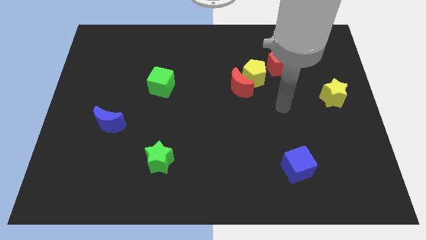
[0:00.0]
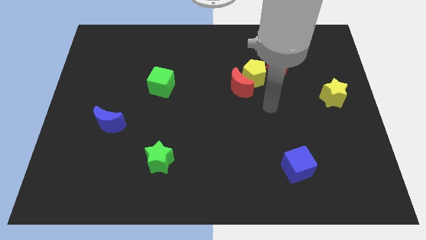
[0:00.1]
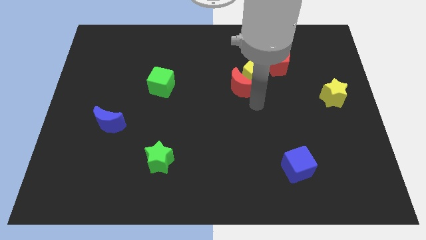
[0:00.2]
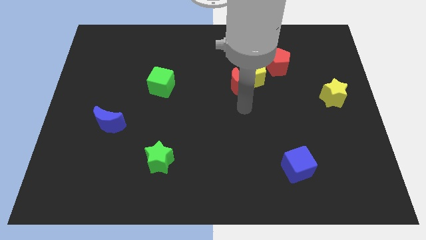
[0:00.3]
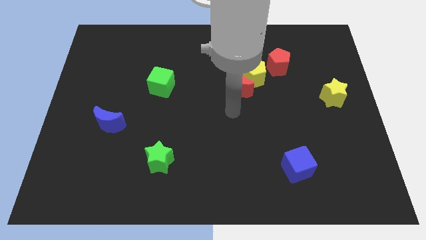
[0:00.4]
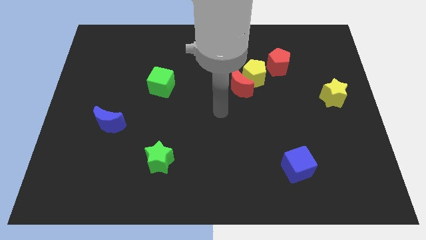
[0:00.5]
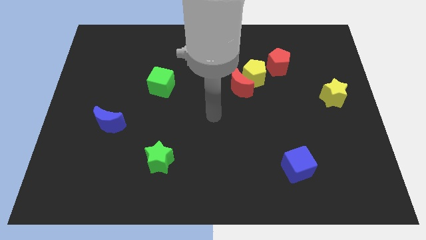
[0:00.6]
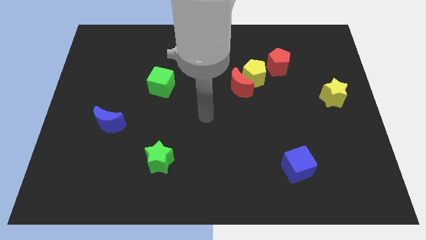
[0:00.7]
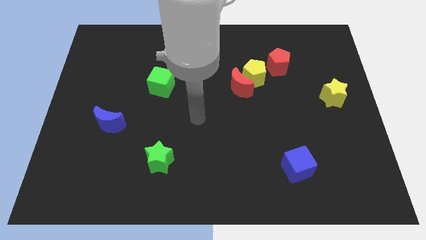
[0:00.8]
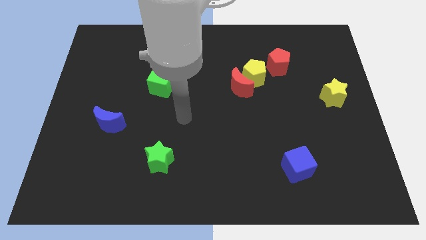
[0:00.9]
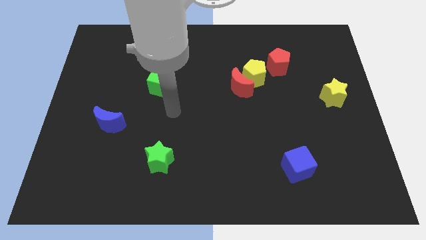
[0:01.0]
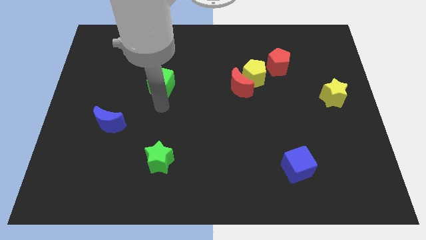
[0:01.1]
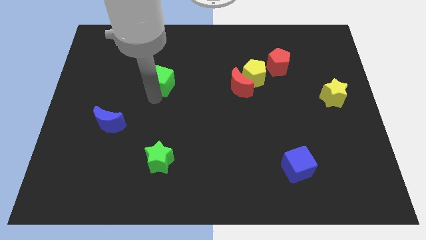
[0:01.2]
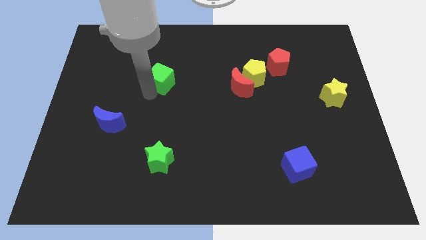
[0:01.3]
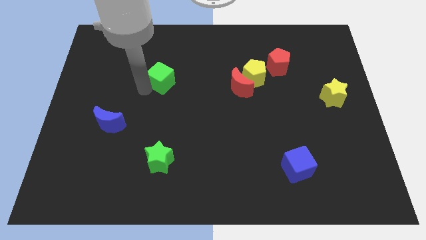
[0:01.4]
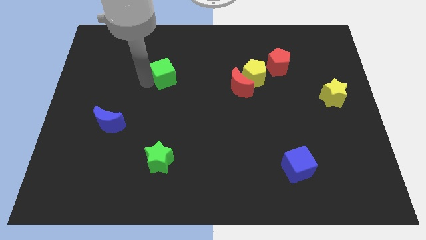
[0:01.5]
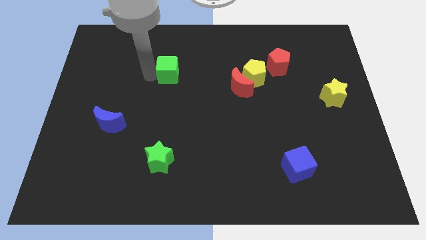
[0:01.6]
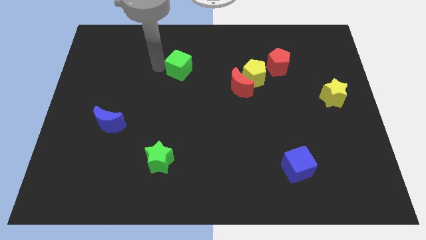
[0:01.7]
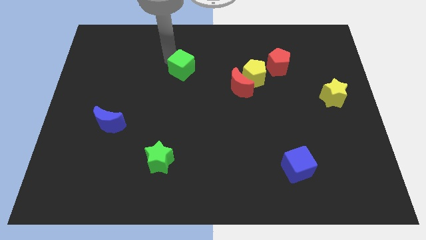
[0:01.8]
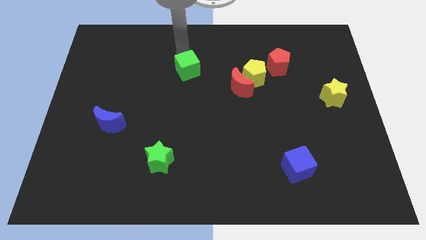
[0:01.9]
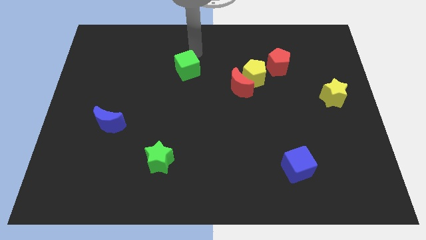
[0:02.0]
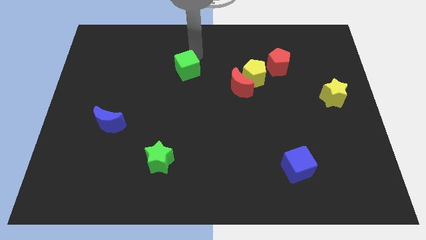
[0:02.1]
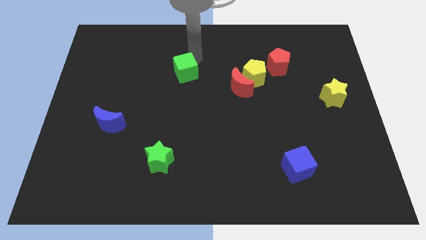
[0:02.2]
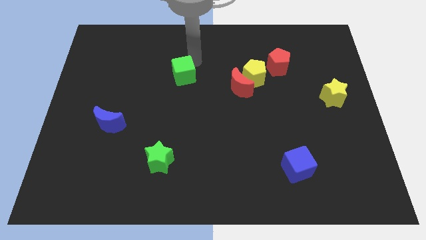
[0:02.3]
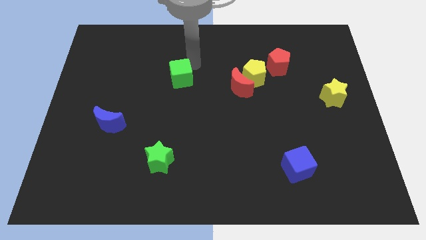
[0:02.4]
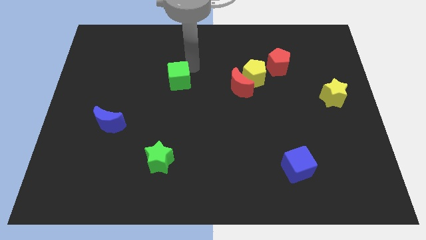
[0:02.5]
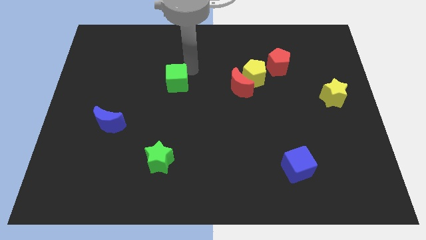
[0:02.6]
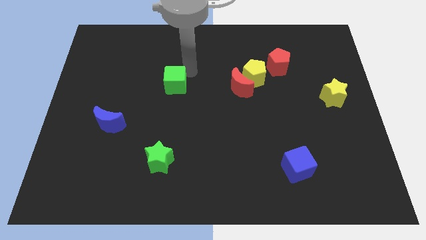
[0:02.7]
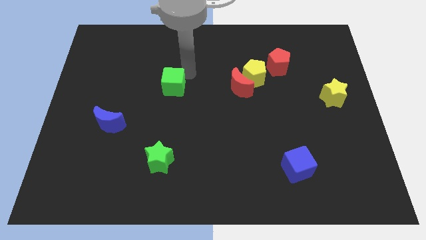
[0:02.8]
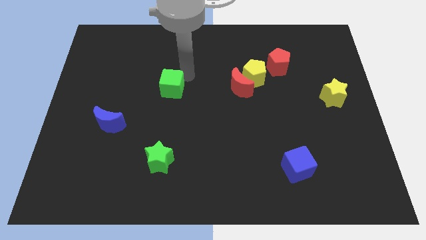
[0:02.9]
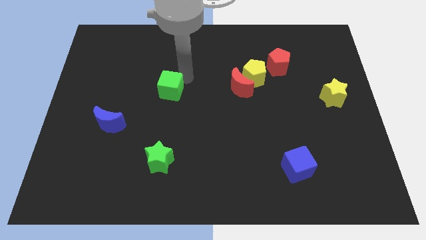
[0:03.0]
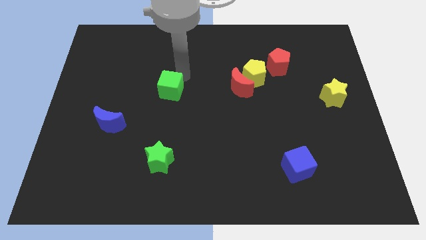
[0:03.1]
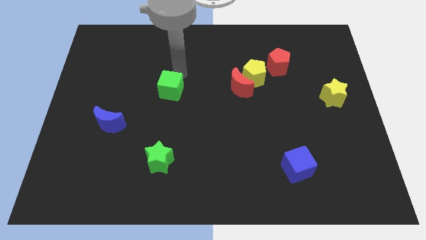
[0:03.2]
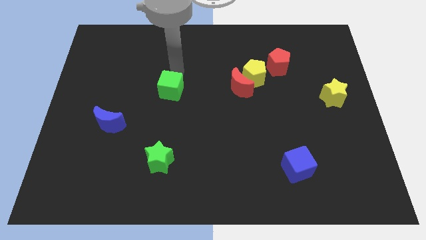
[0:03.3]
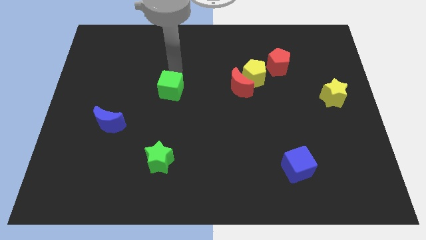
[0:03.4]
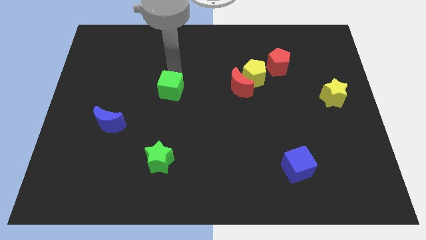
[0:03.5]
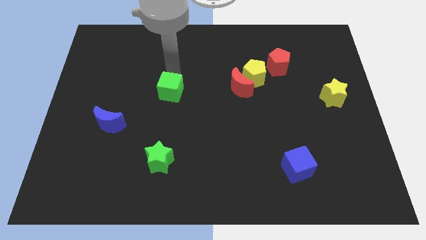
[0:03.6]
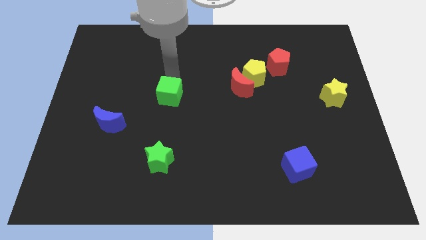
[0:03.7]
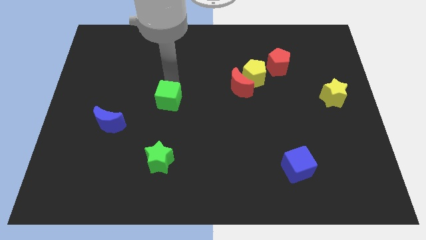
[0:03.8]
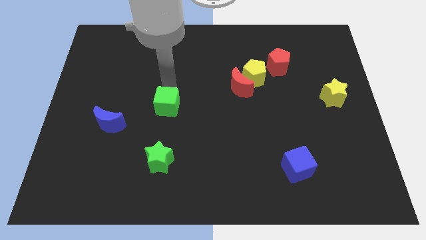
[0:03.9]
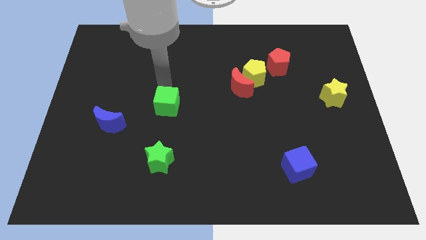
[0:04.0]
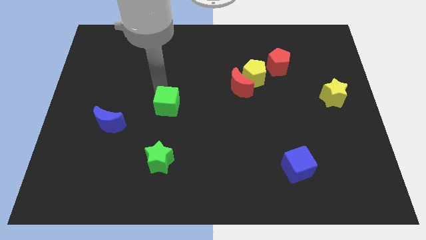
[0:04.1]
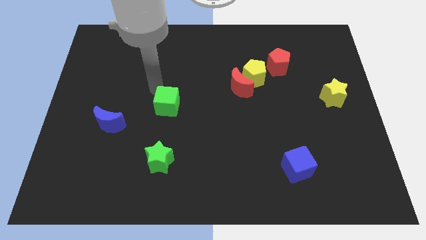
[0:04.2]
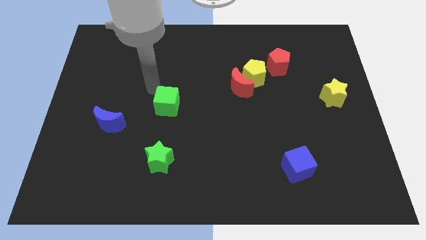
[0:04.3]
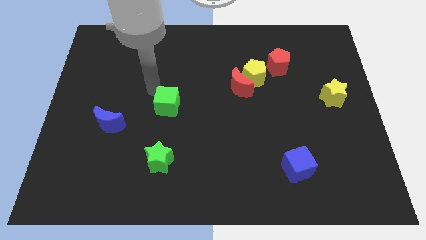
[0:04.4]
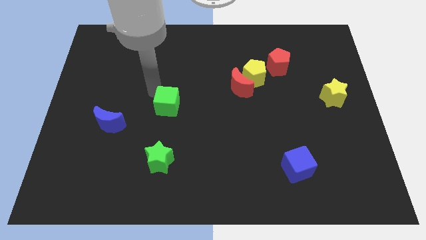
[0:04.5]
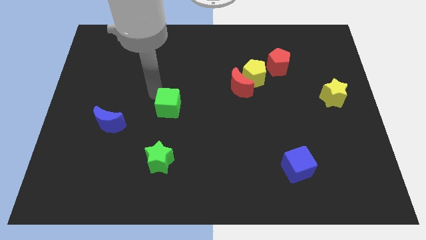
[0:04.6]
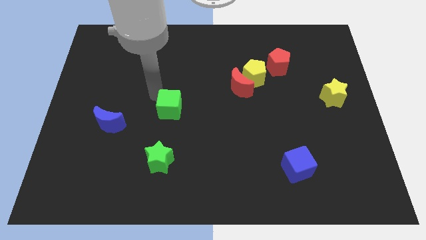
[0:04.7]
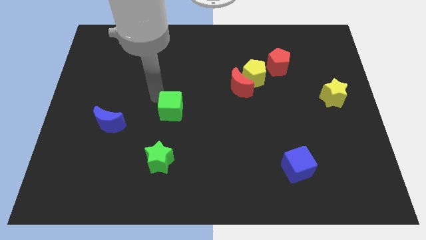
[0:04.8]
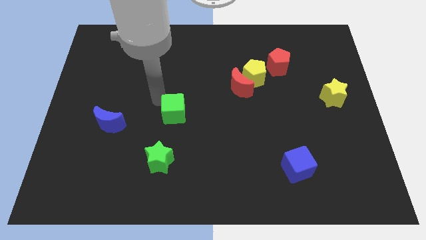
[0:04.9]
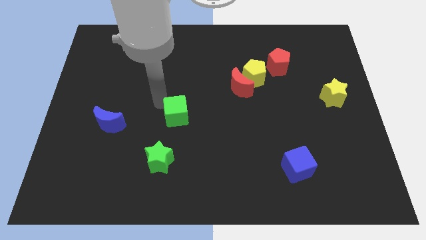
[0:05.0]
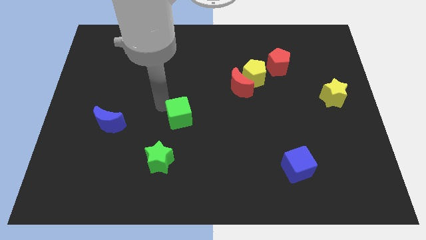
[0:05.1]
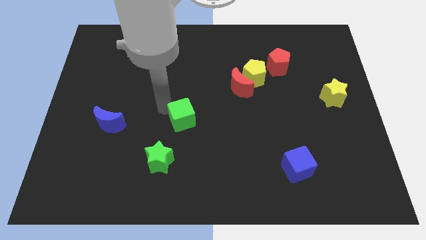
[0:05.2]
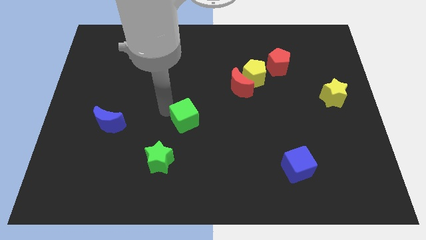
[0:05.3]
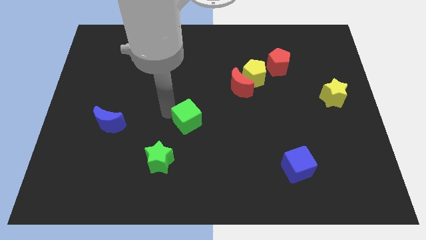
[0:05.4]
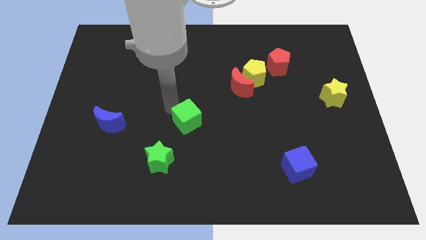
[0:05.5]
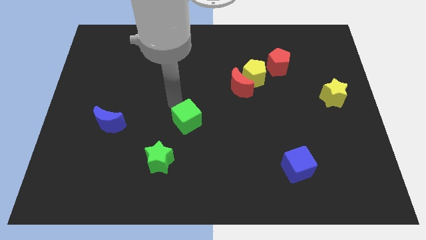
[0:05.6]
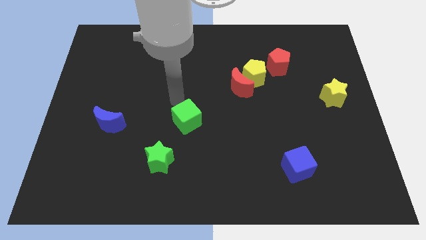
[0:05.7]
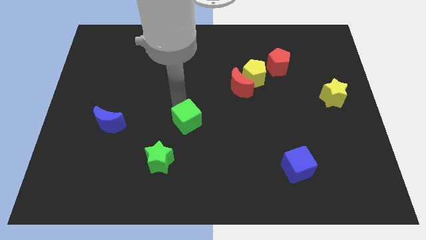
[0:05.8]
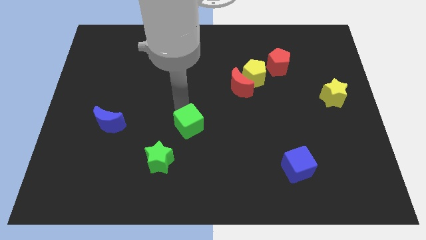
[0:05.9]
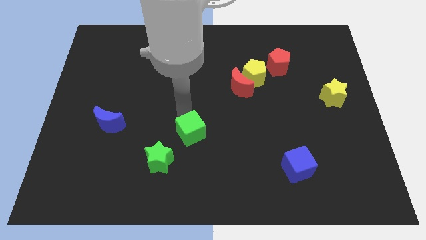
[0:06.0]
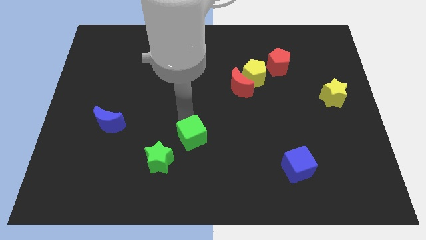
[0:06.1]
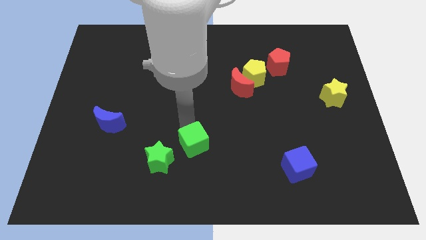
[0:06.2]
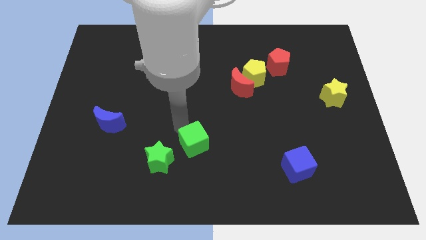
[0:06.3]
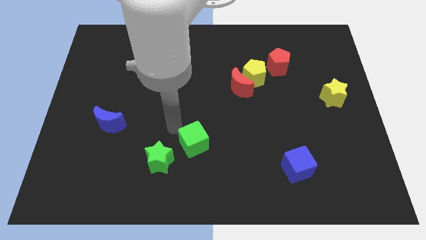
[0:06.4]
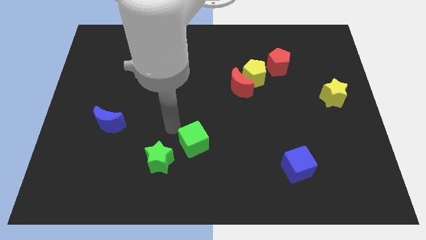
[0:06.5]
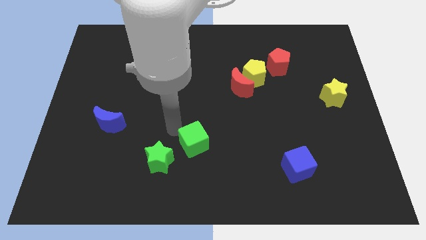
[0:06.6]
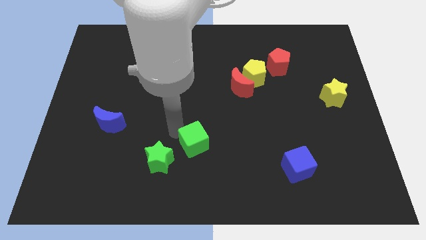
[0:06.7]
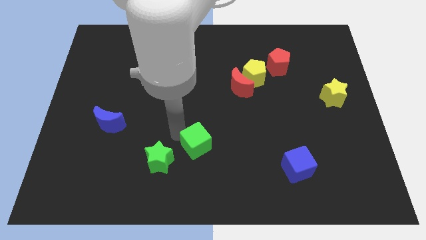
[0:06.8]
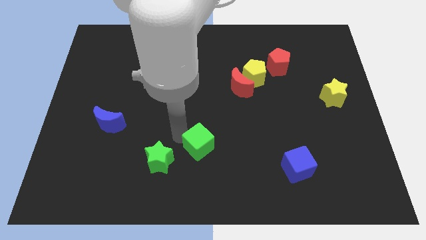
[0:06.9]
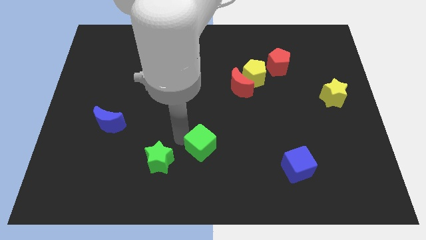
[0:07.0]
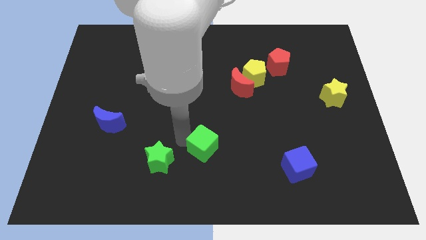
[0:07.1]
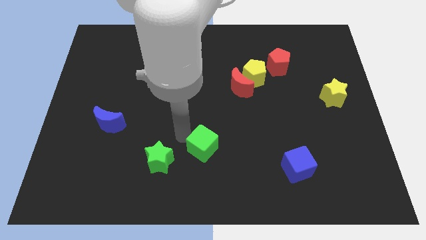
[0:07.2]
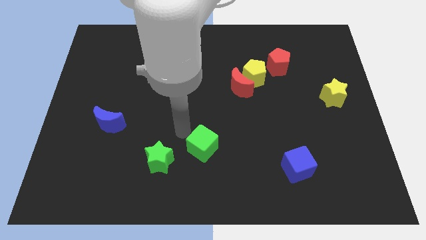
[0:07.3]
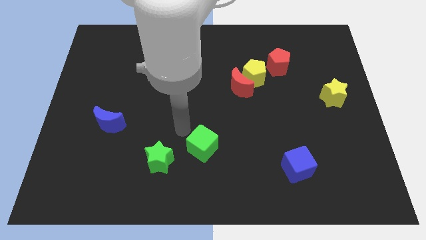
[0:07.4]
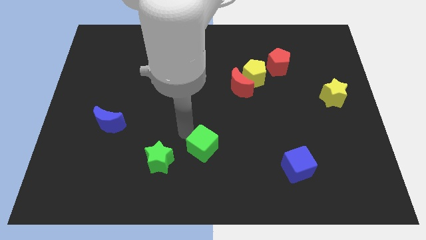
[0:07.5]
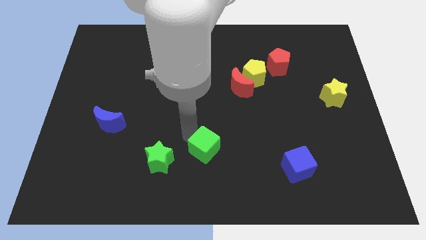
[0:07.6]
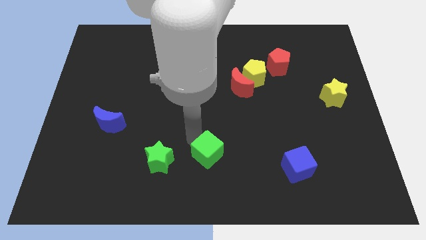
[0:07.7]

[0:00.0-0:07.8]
push the green cube diagonally down and to the right

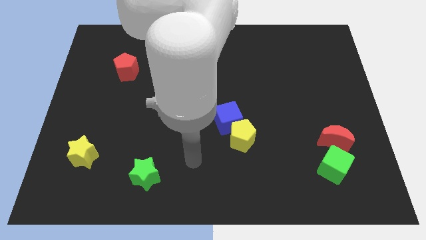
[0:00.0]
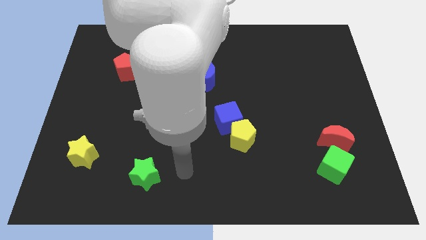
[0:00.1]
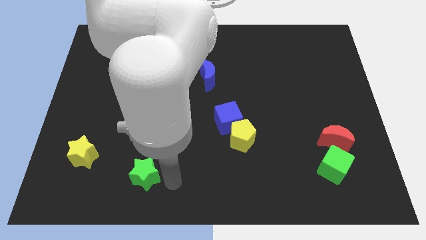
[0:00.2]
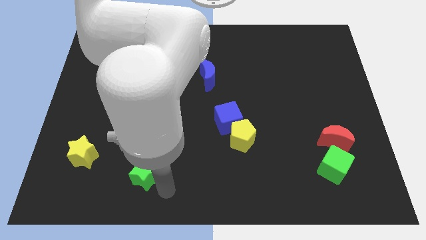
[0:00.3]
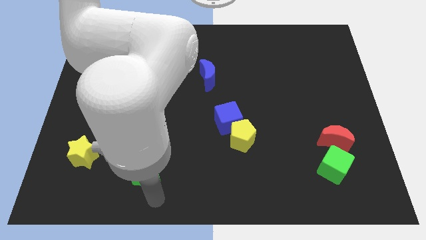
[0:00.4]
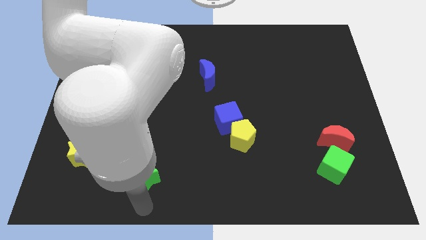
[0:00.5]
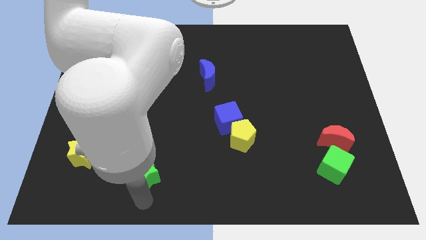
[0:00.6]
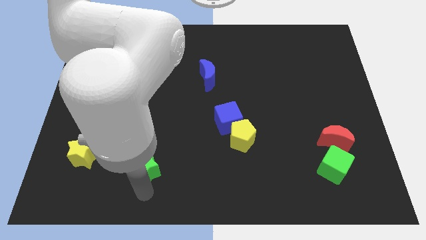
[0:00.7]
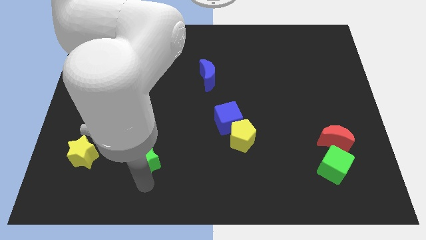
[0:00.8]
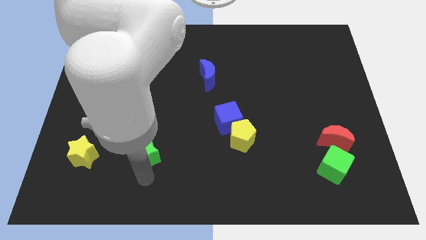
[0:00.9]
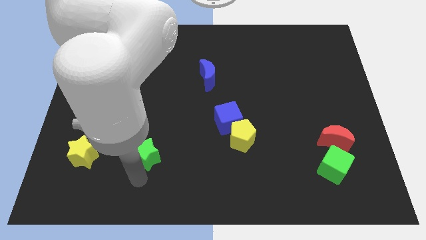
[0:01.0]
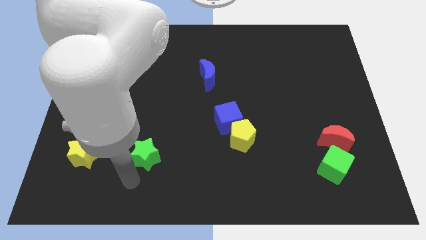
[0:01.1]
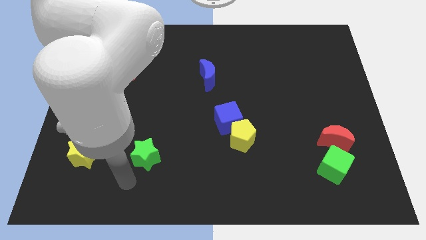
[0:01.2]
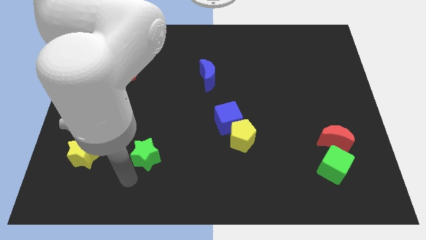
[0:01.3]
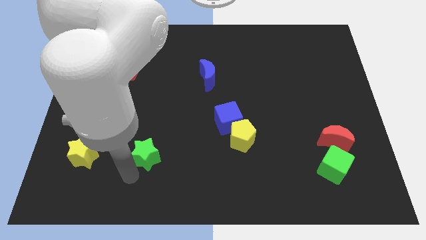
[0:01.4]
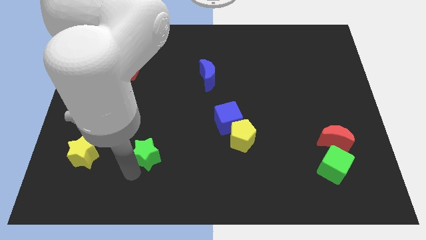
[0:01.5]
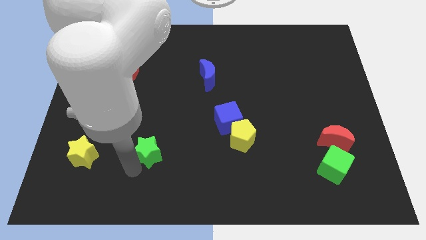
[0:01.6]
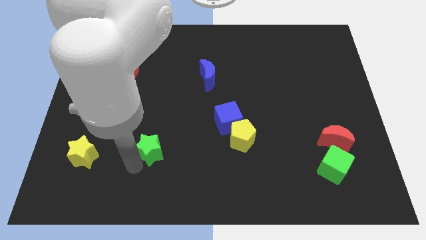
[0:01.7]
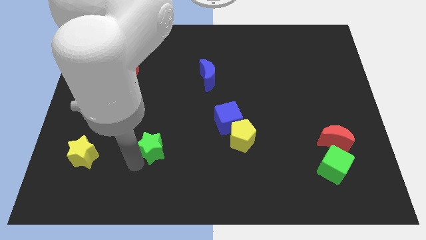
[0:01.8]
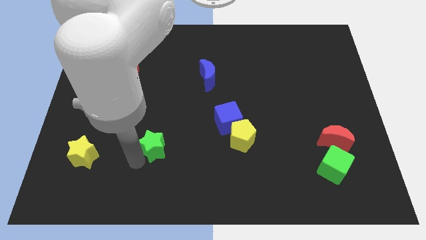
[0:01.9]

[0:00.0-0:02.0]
slide the green star a bit up
